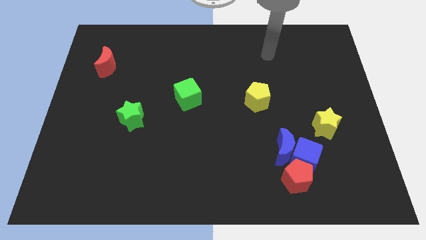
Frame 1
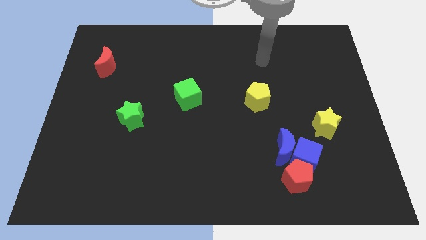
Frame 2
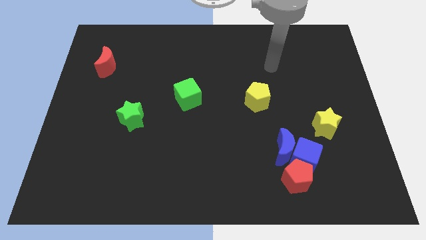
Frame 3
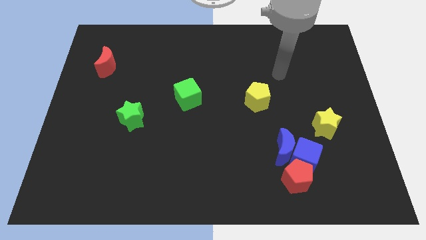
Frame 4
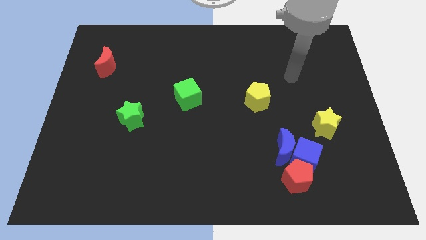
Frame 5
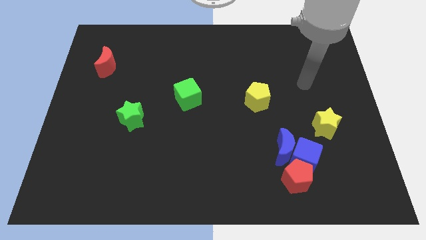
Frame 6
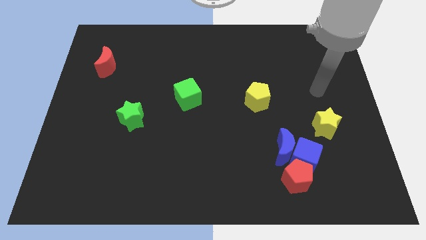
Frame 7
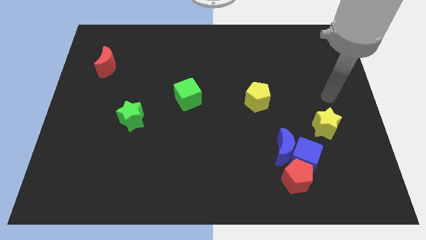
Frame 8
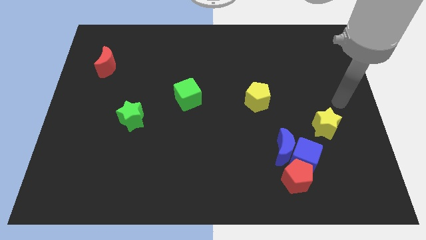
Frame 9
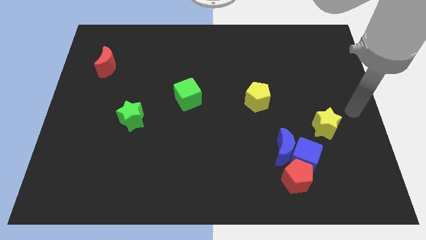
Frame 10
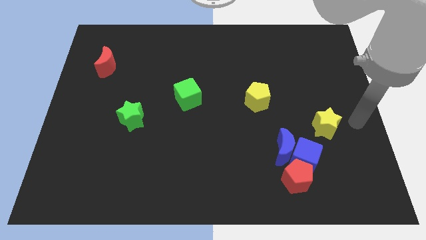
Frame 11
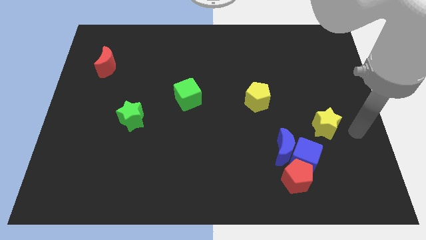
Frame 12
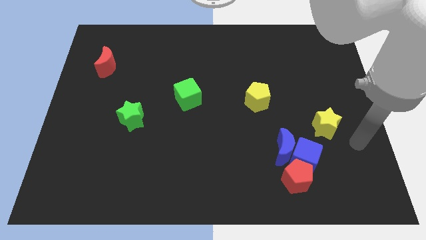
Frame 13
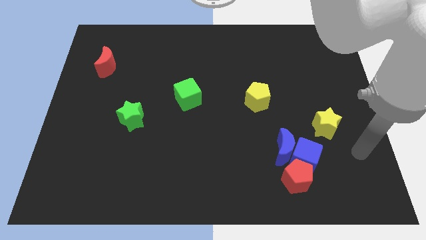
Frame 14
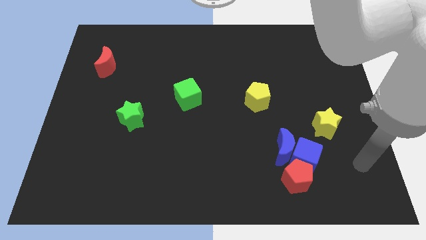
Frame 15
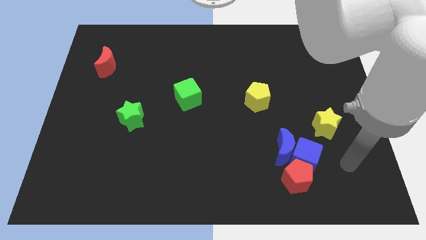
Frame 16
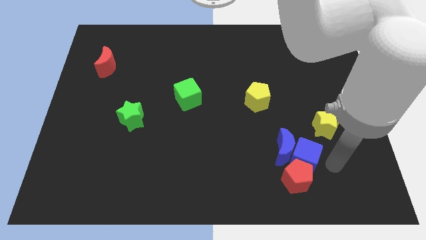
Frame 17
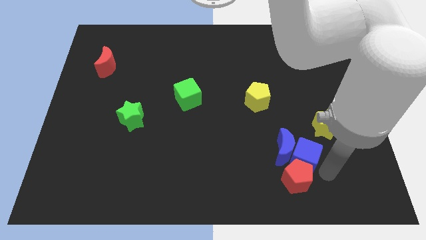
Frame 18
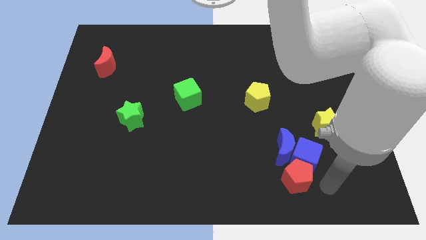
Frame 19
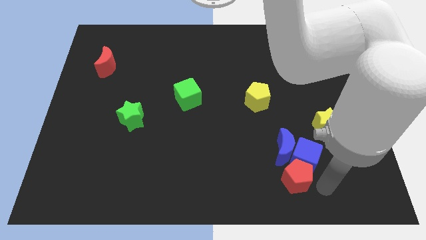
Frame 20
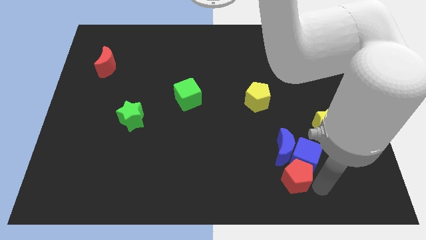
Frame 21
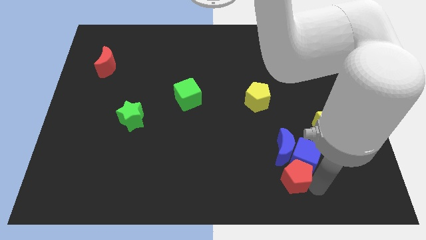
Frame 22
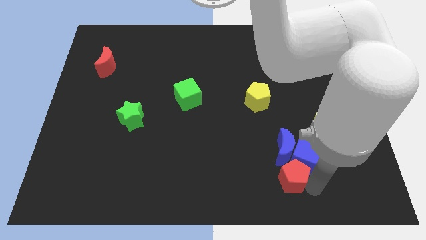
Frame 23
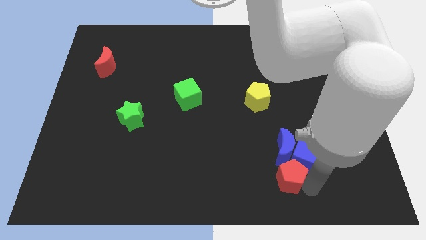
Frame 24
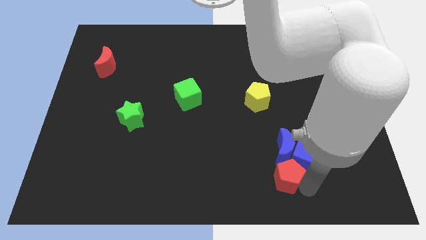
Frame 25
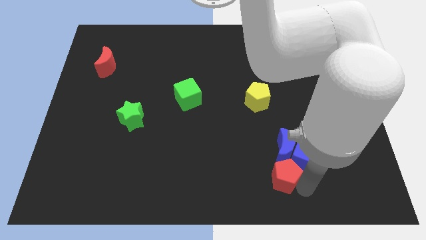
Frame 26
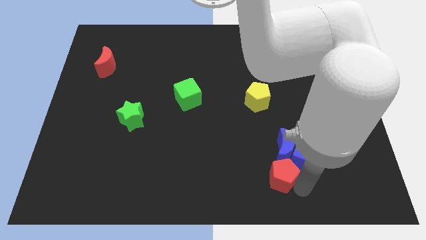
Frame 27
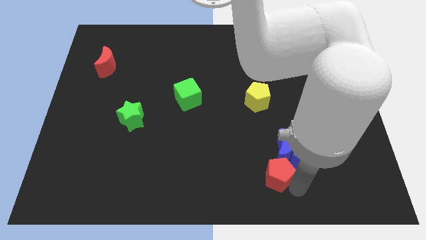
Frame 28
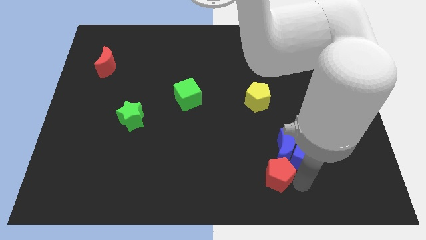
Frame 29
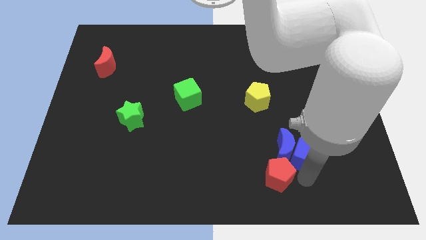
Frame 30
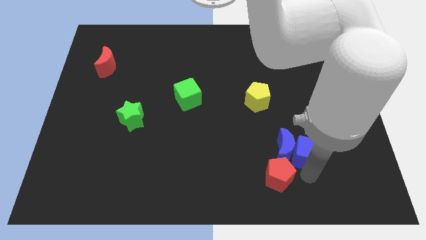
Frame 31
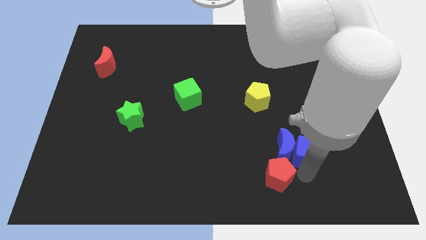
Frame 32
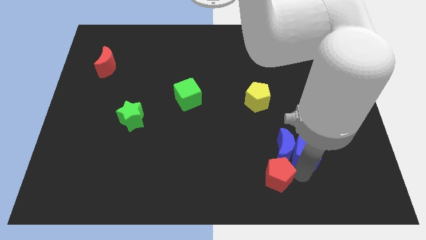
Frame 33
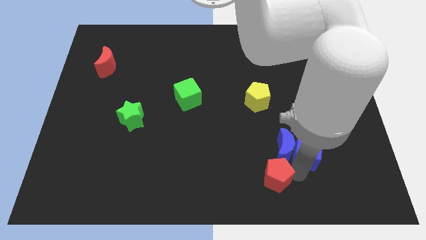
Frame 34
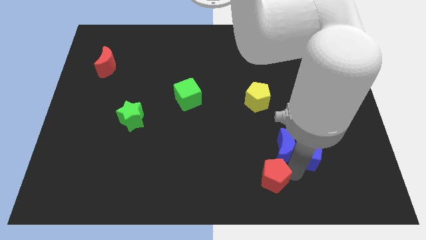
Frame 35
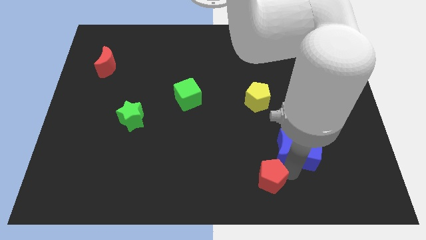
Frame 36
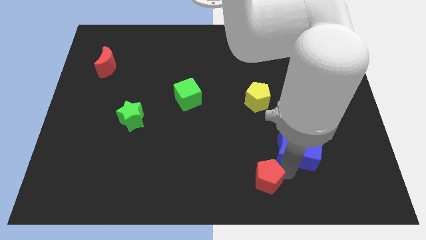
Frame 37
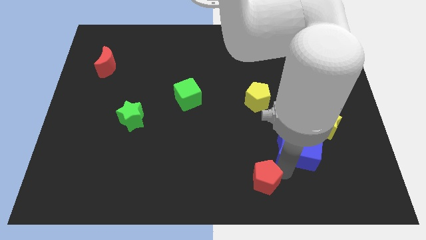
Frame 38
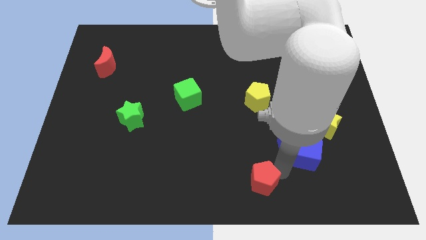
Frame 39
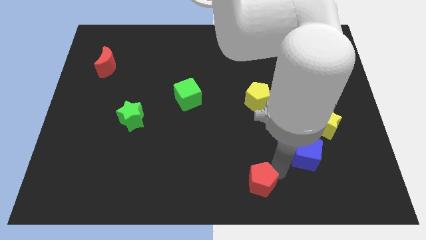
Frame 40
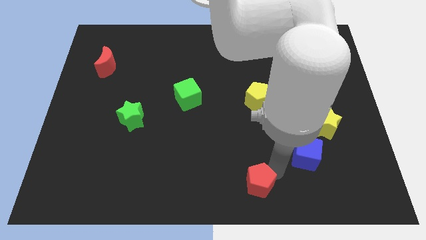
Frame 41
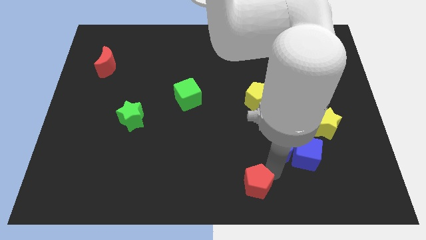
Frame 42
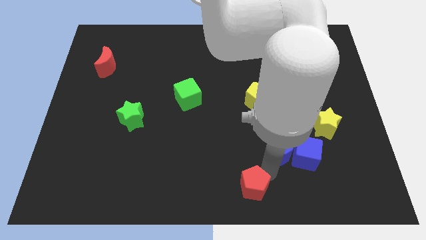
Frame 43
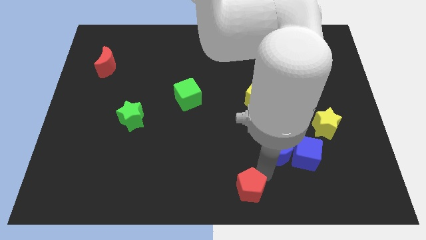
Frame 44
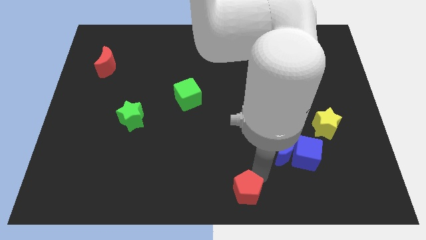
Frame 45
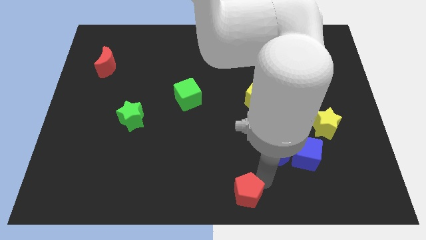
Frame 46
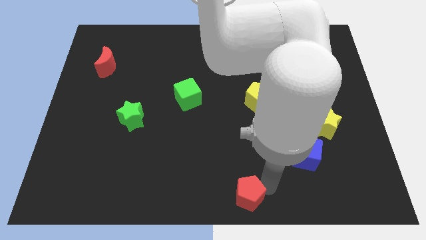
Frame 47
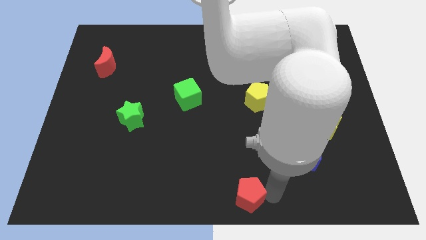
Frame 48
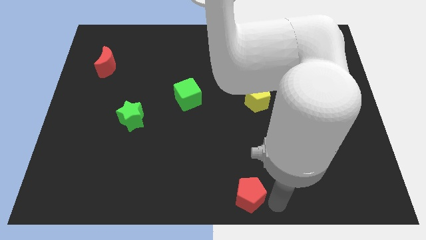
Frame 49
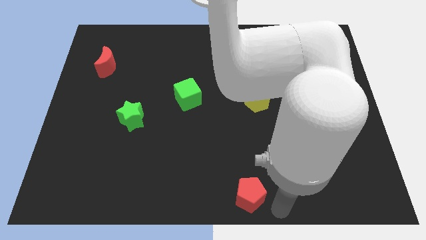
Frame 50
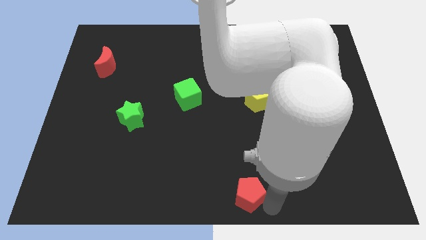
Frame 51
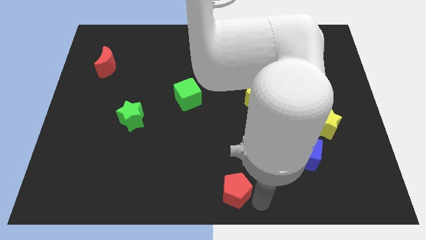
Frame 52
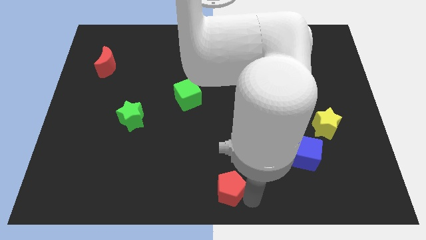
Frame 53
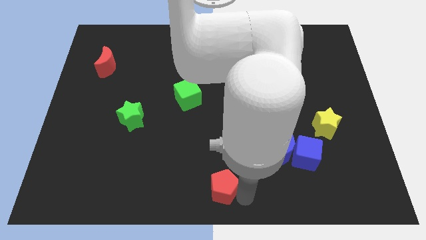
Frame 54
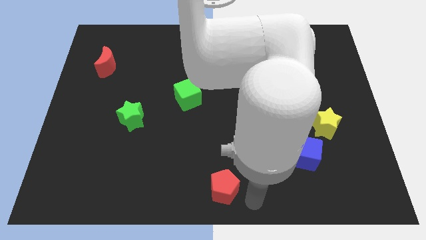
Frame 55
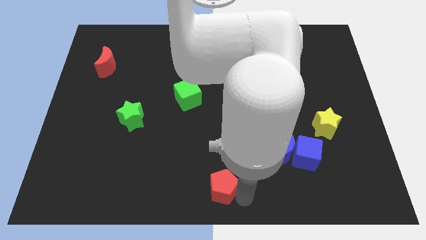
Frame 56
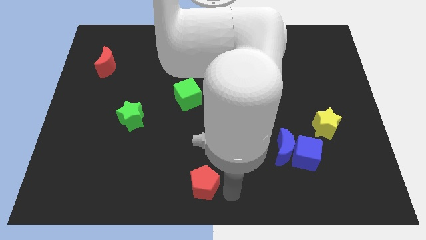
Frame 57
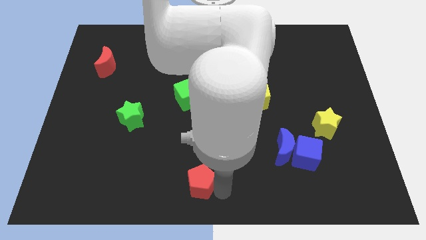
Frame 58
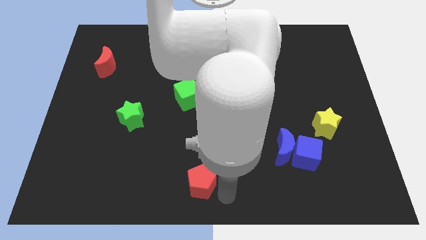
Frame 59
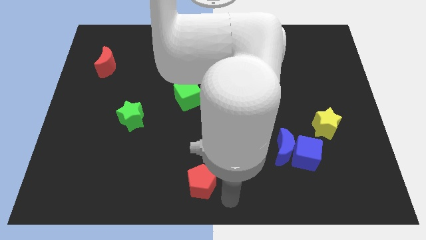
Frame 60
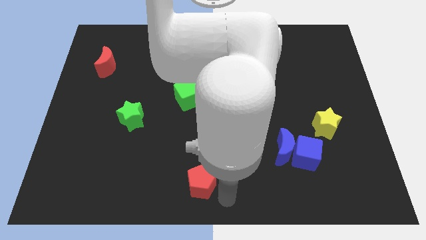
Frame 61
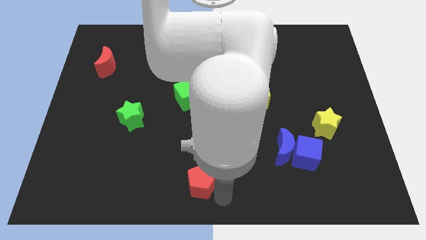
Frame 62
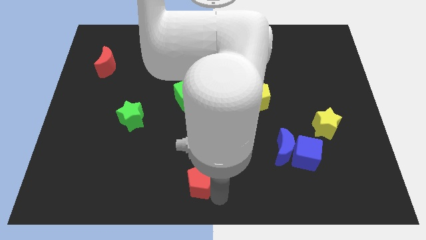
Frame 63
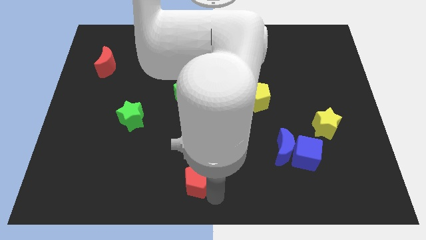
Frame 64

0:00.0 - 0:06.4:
push the red pentagon to the left

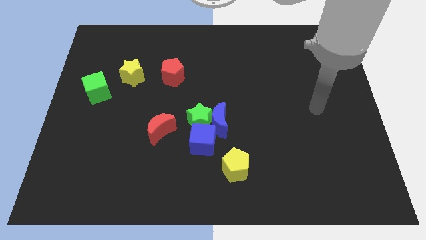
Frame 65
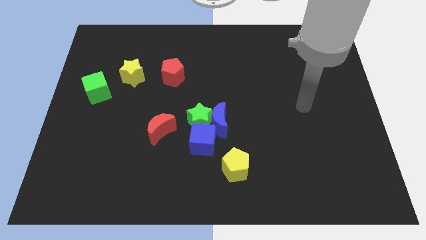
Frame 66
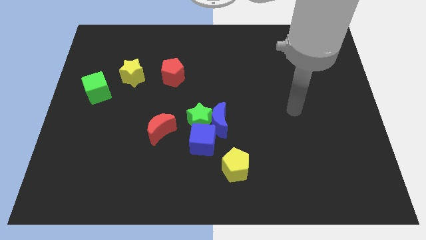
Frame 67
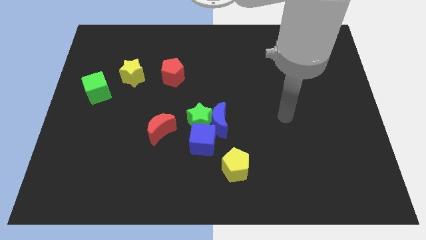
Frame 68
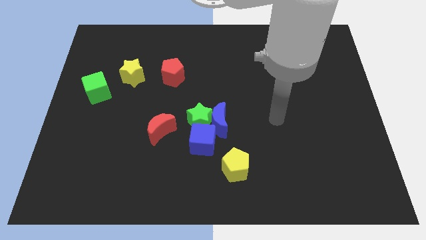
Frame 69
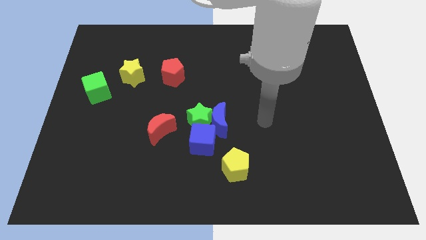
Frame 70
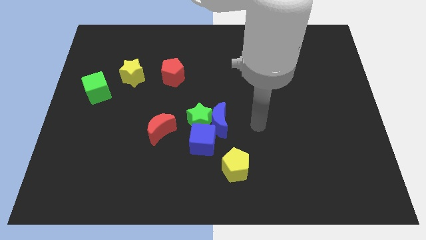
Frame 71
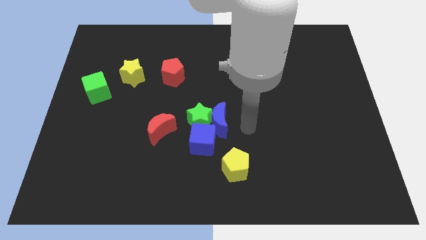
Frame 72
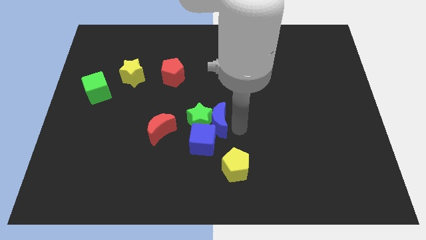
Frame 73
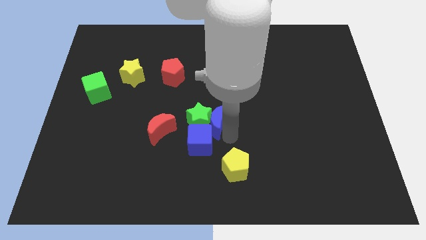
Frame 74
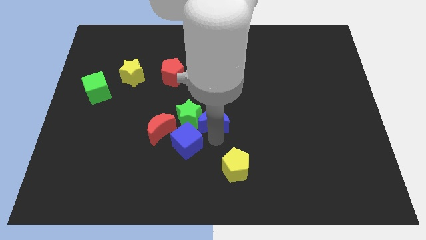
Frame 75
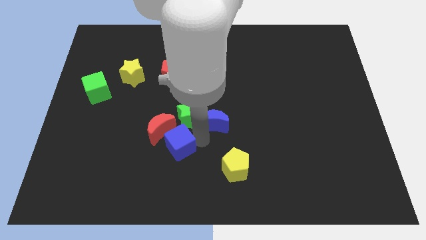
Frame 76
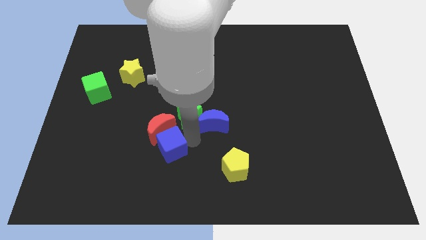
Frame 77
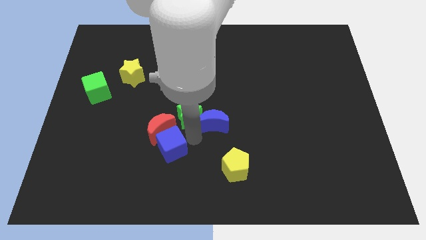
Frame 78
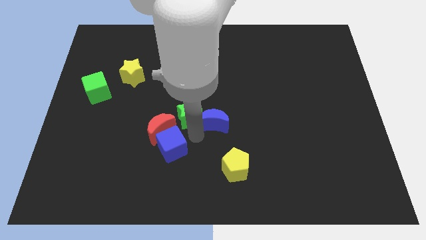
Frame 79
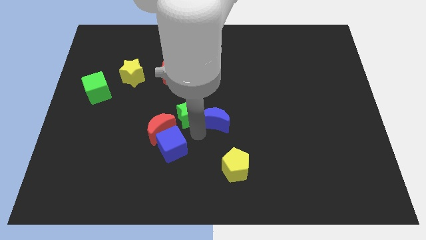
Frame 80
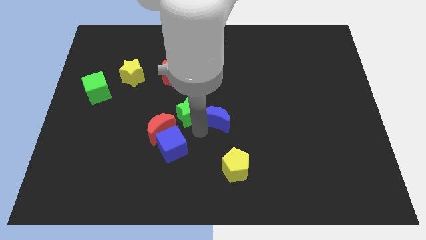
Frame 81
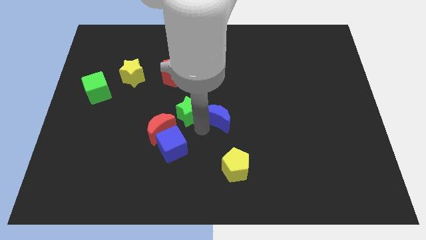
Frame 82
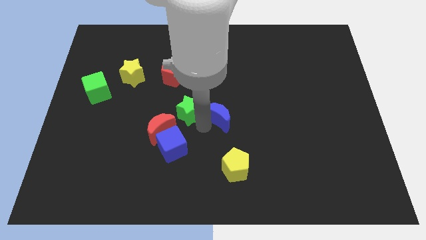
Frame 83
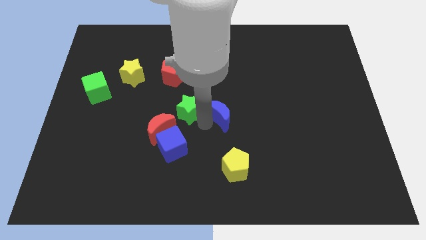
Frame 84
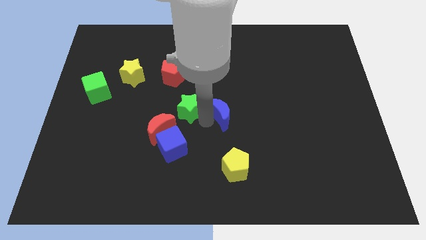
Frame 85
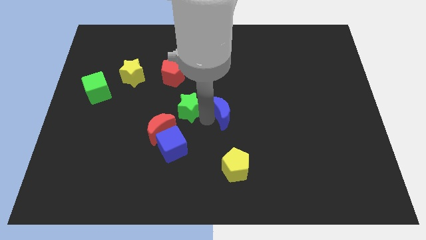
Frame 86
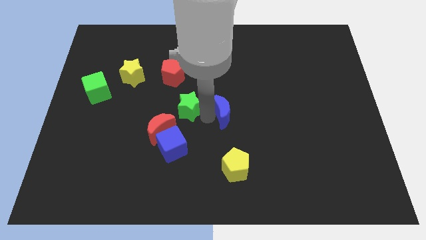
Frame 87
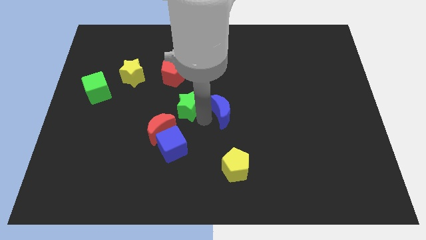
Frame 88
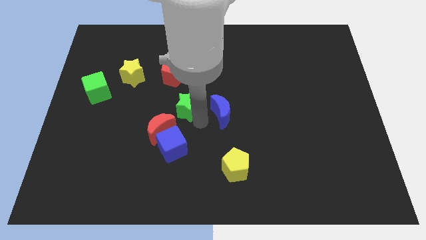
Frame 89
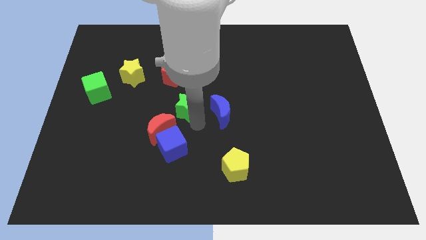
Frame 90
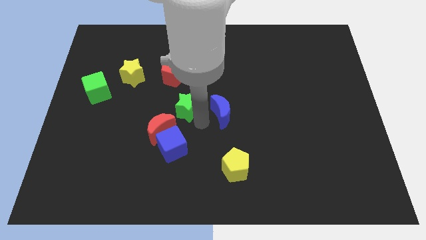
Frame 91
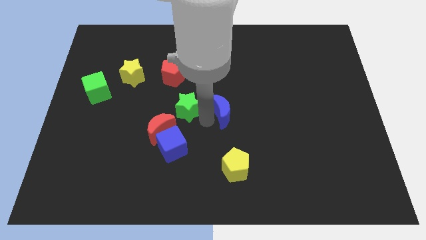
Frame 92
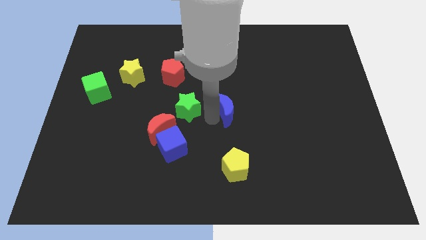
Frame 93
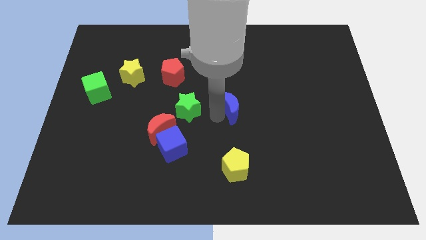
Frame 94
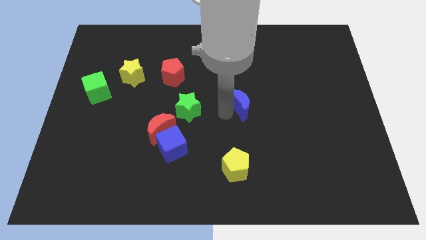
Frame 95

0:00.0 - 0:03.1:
slide the blue moon upwards and then to the right somewhat
